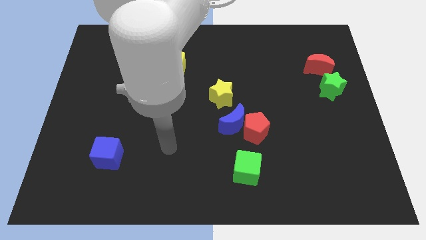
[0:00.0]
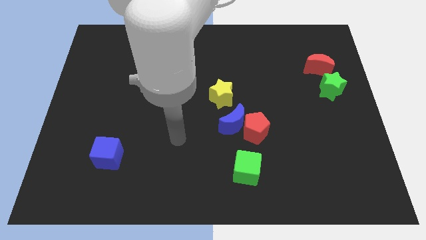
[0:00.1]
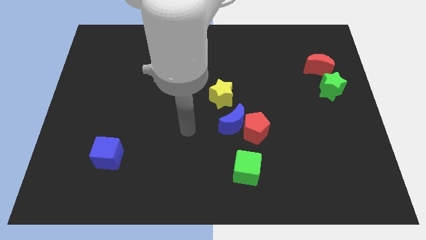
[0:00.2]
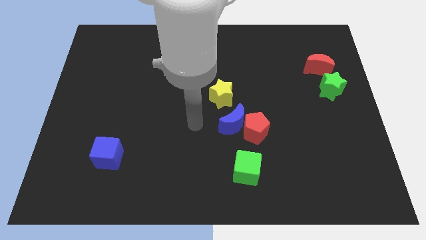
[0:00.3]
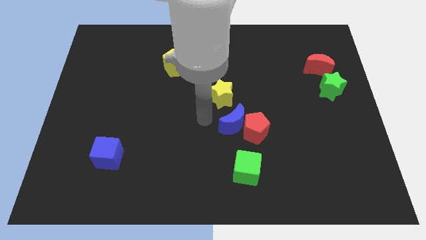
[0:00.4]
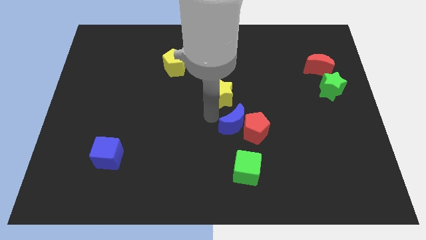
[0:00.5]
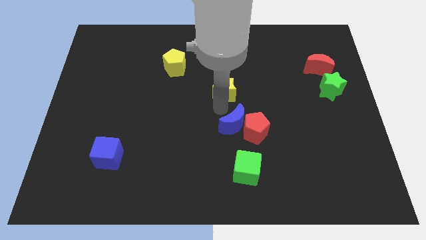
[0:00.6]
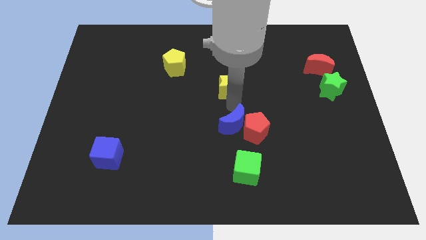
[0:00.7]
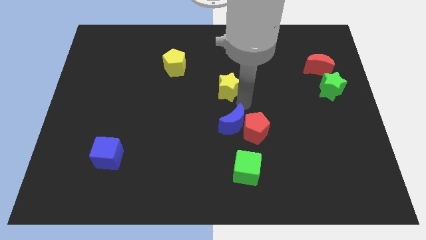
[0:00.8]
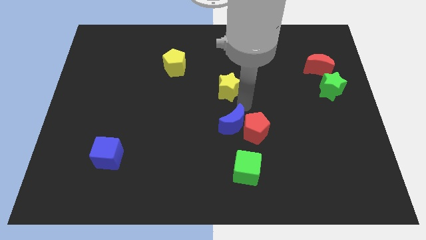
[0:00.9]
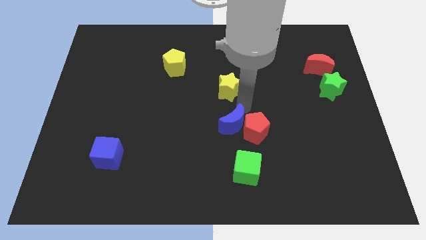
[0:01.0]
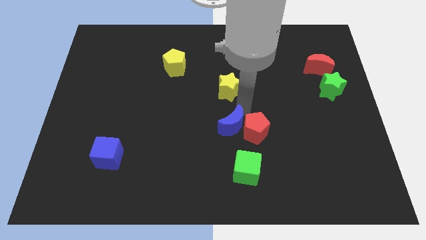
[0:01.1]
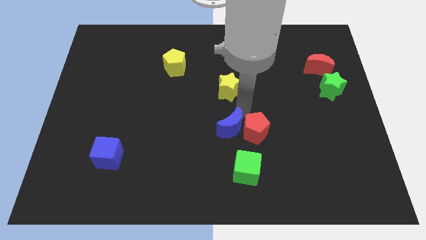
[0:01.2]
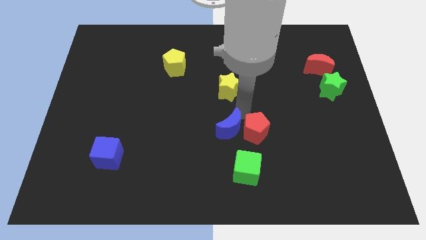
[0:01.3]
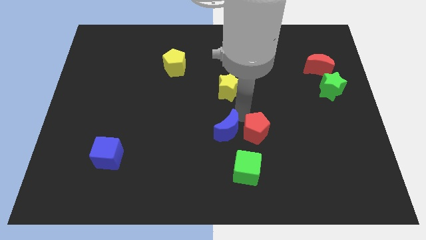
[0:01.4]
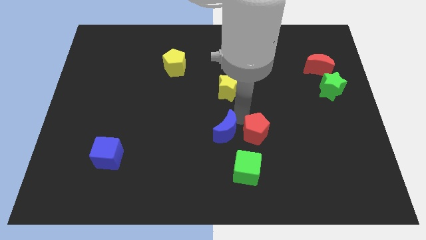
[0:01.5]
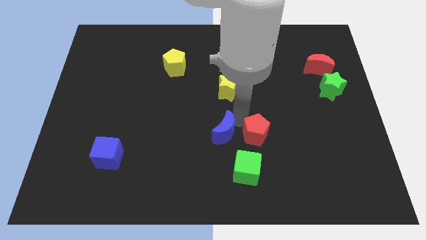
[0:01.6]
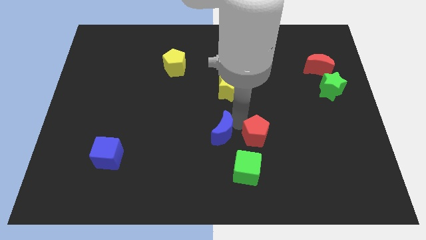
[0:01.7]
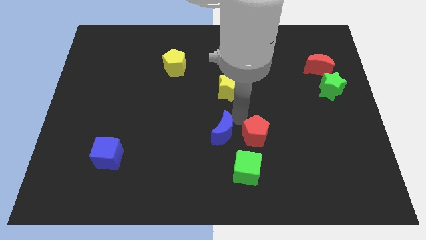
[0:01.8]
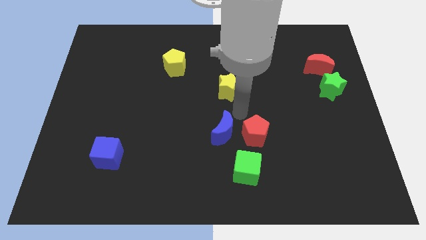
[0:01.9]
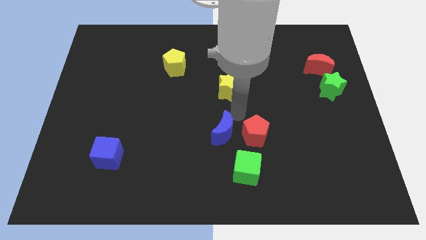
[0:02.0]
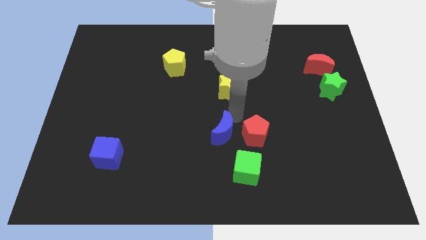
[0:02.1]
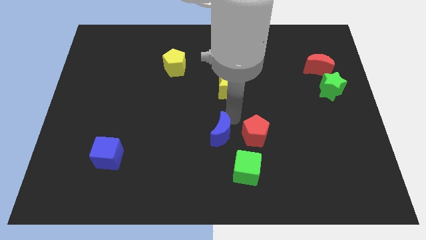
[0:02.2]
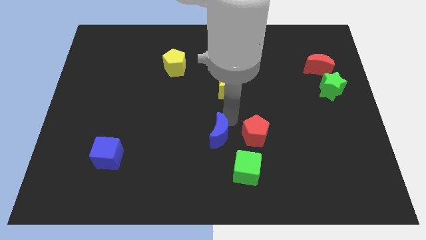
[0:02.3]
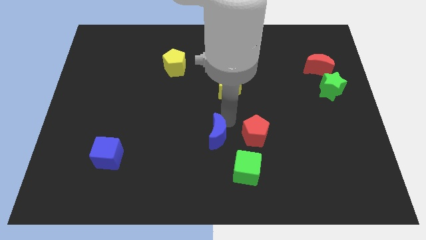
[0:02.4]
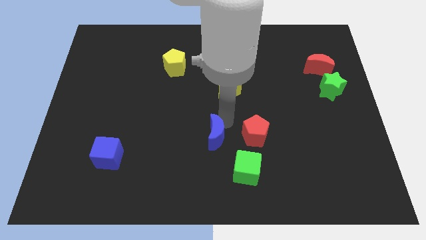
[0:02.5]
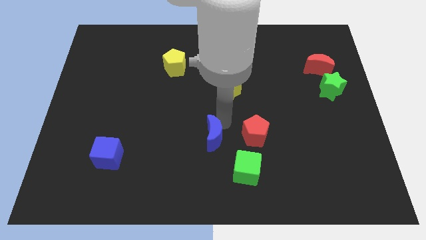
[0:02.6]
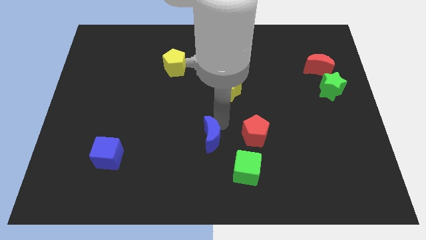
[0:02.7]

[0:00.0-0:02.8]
separate the blue moon from the red pentagon and yellow star

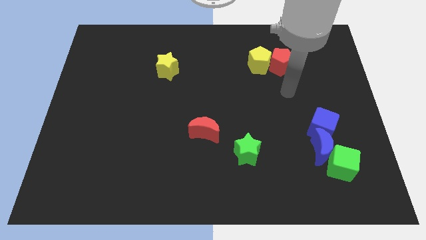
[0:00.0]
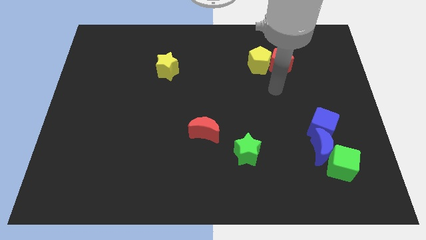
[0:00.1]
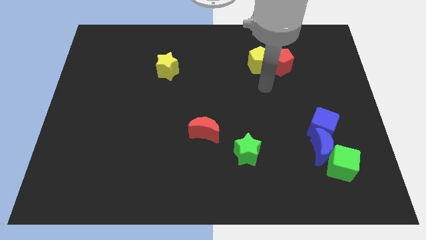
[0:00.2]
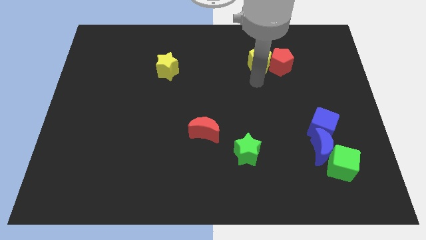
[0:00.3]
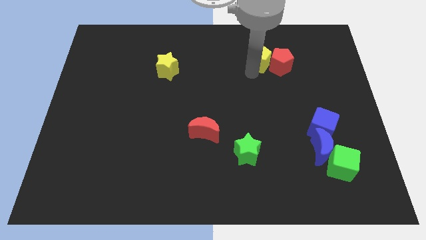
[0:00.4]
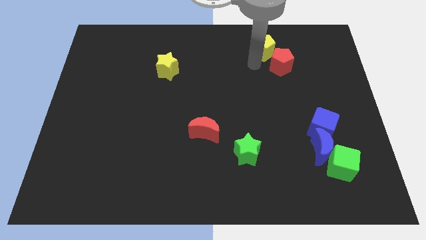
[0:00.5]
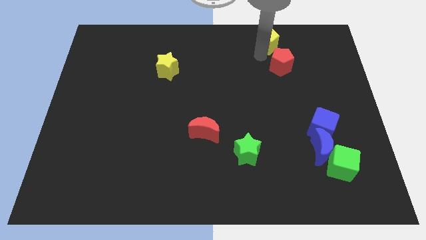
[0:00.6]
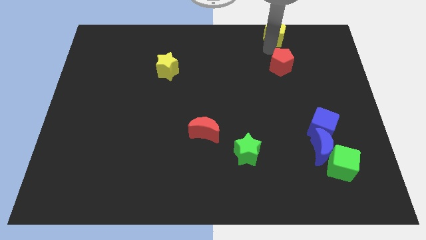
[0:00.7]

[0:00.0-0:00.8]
separate the red pentagon from the yellow pentagon

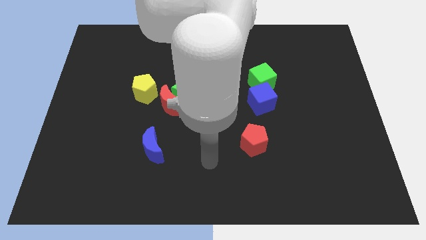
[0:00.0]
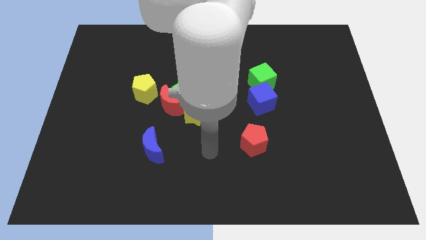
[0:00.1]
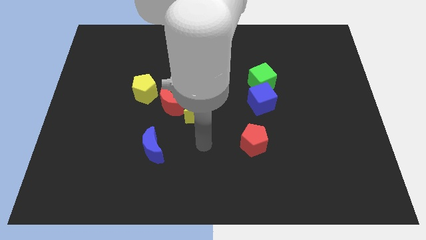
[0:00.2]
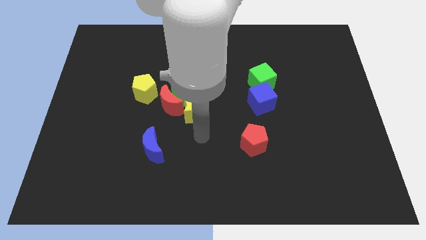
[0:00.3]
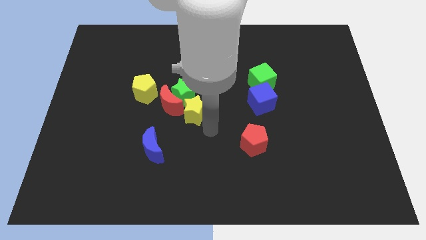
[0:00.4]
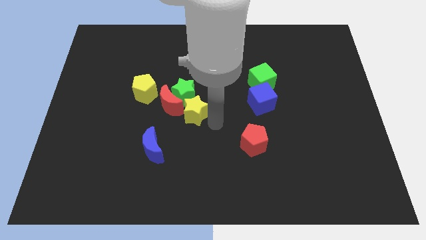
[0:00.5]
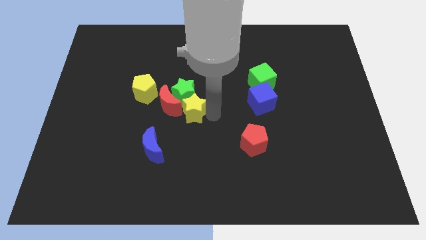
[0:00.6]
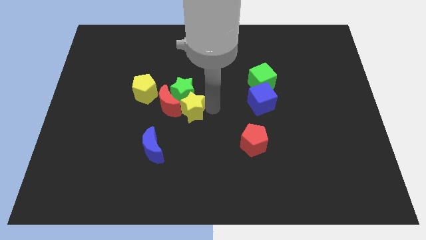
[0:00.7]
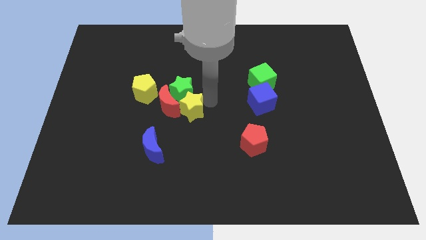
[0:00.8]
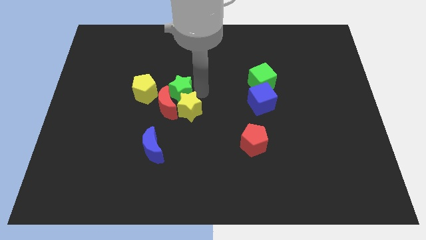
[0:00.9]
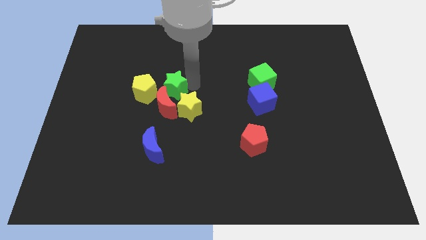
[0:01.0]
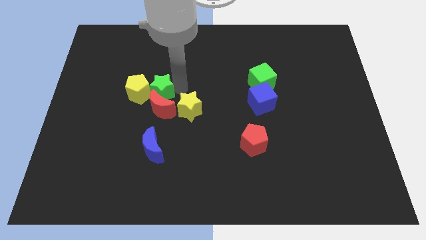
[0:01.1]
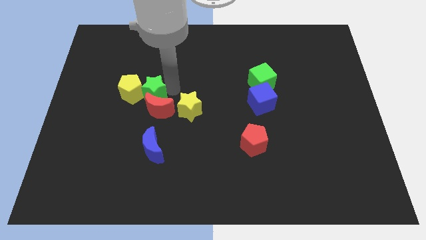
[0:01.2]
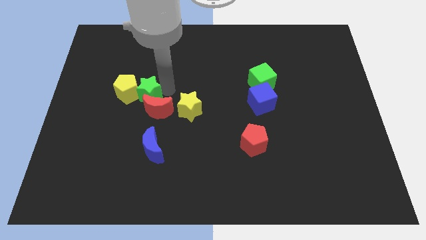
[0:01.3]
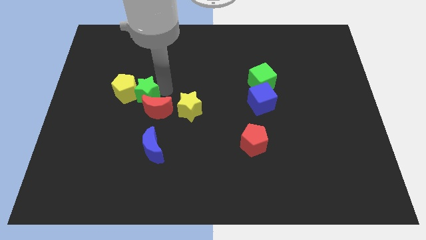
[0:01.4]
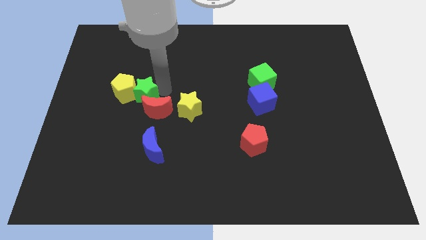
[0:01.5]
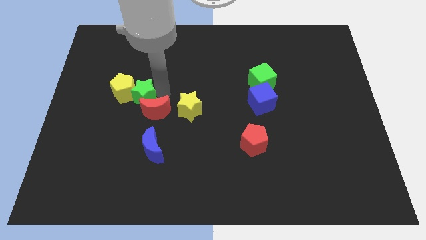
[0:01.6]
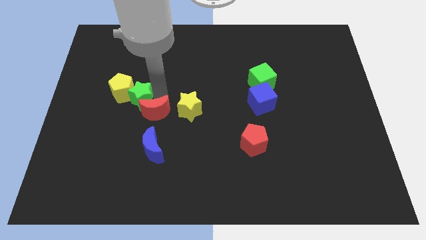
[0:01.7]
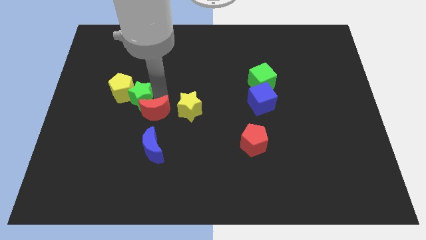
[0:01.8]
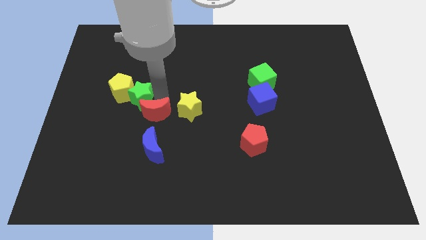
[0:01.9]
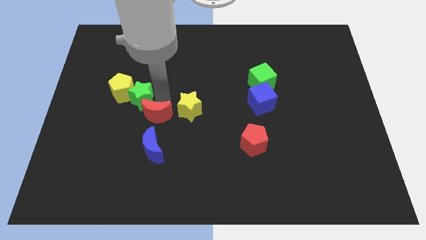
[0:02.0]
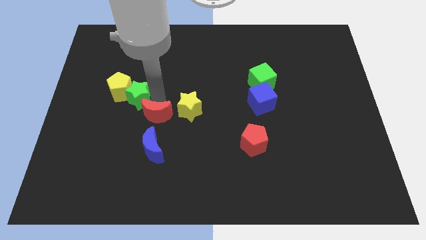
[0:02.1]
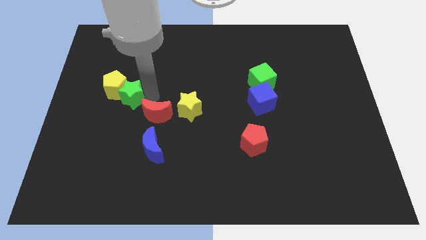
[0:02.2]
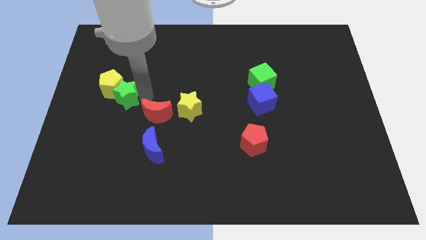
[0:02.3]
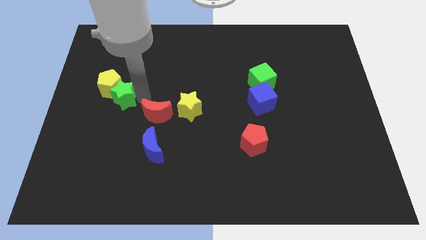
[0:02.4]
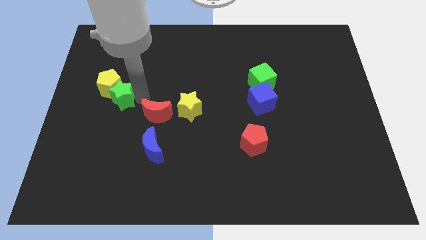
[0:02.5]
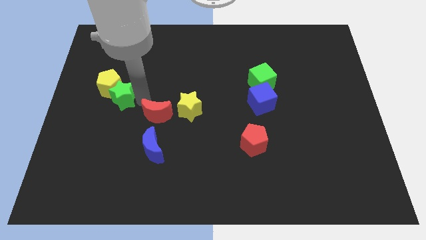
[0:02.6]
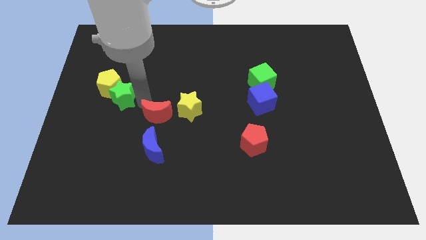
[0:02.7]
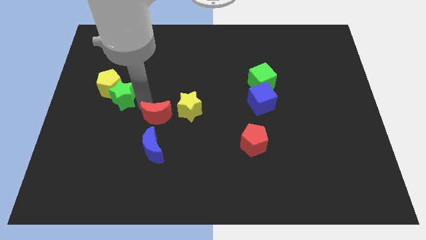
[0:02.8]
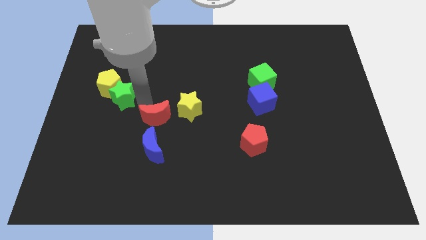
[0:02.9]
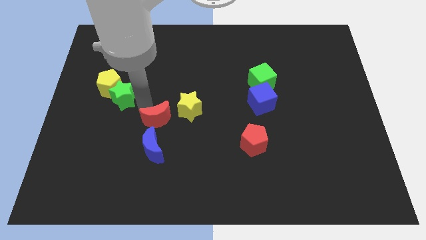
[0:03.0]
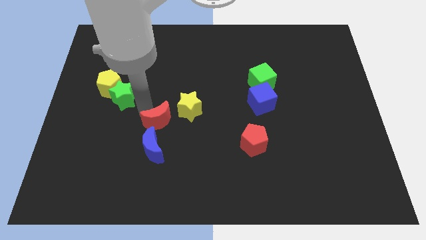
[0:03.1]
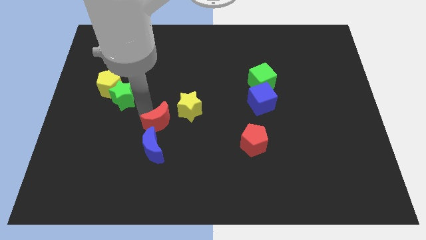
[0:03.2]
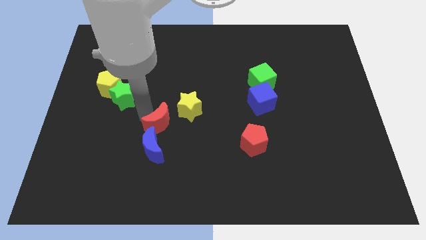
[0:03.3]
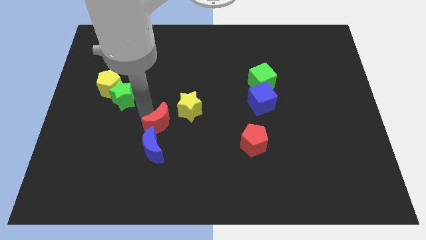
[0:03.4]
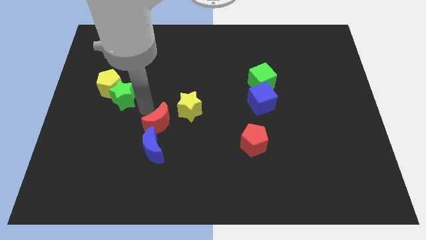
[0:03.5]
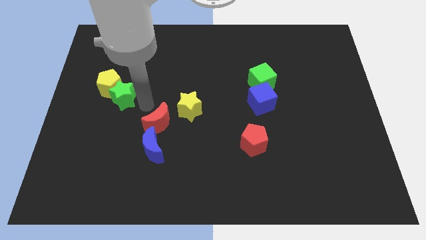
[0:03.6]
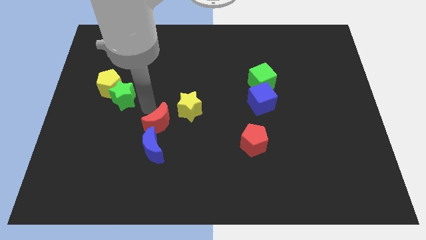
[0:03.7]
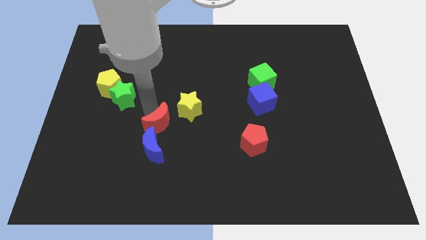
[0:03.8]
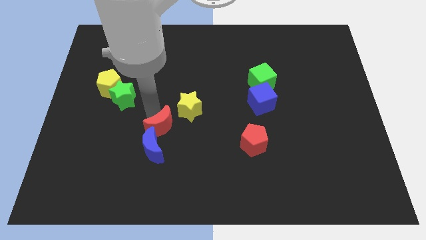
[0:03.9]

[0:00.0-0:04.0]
pull the red moon apart from the group

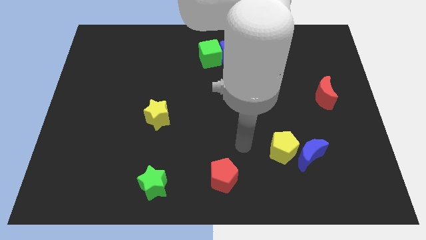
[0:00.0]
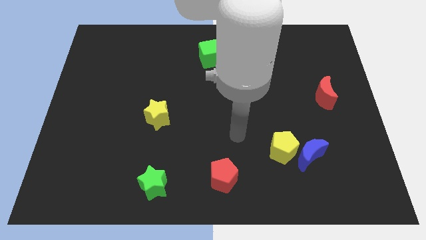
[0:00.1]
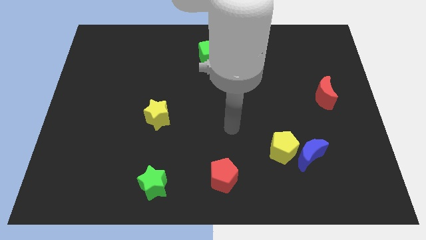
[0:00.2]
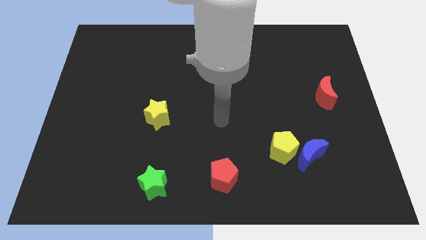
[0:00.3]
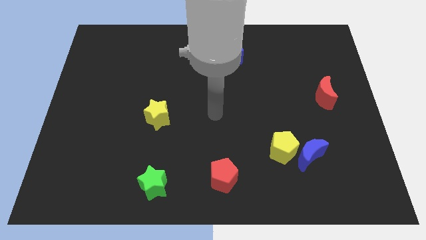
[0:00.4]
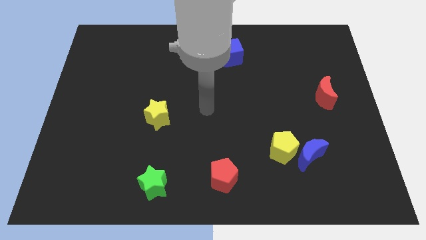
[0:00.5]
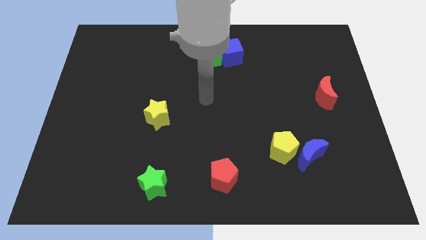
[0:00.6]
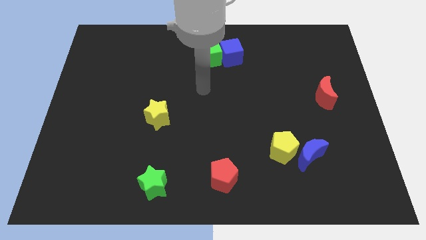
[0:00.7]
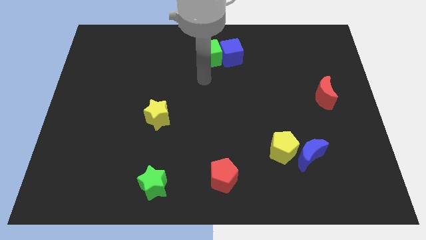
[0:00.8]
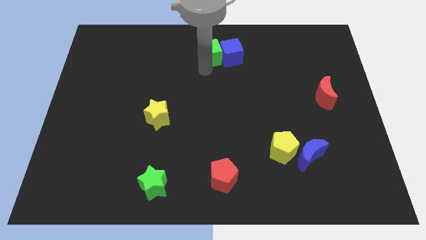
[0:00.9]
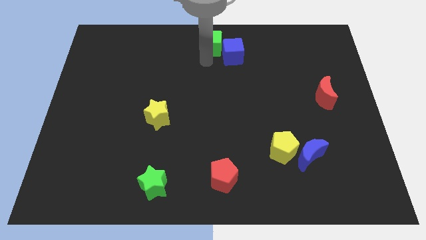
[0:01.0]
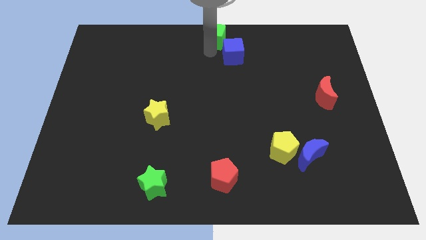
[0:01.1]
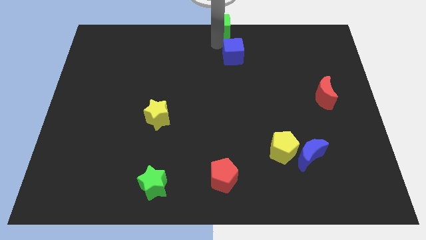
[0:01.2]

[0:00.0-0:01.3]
pull the blue cube apart from the green cube

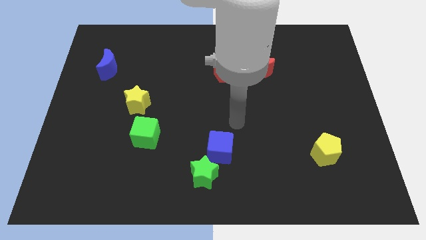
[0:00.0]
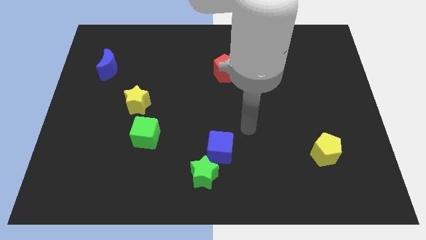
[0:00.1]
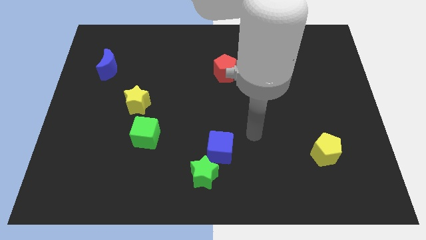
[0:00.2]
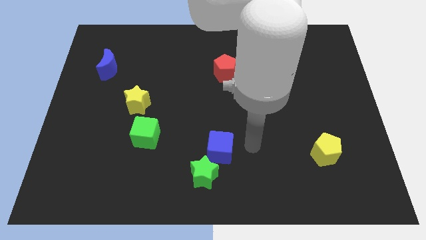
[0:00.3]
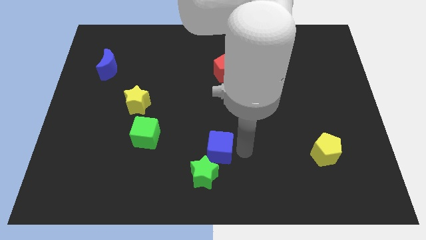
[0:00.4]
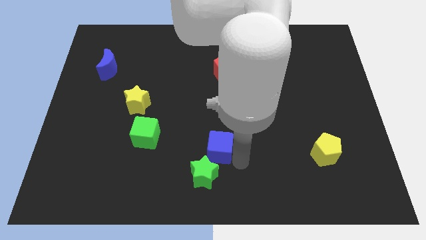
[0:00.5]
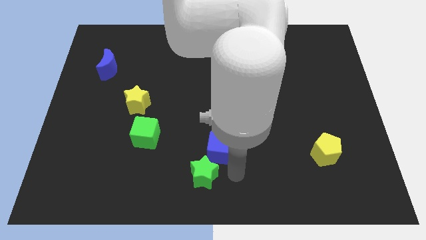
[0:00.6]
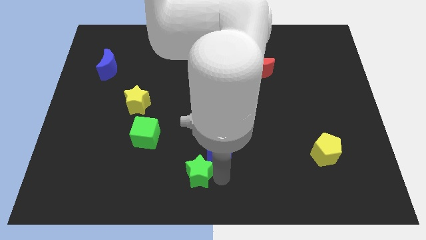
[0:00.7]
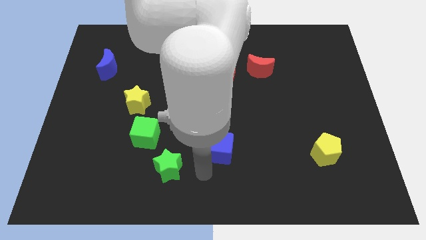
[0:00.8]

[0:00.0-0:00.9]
move the blue cube away from the green star
